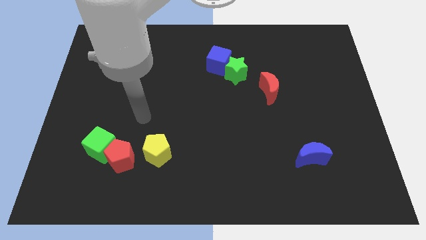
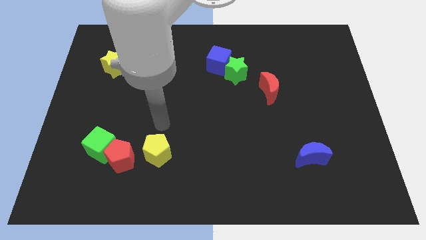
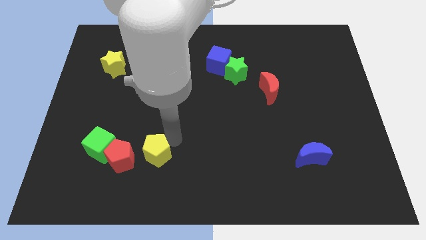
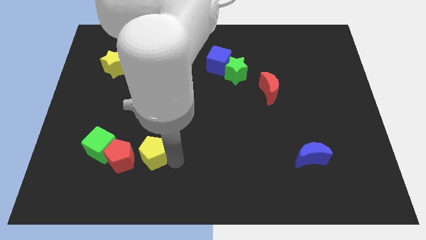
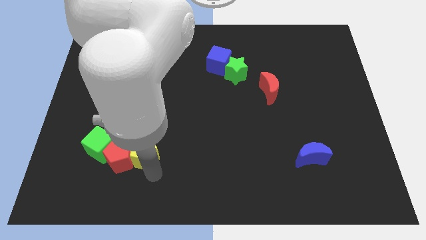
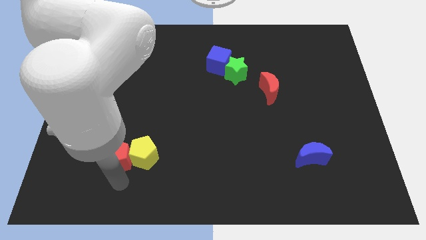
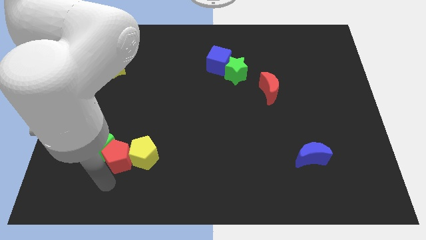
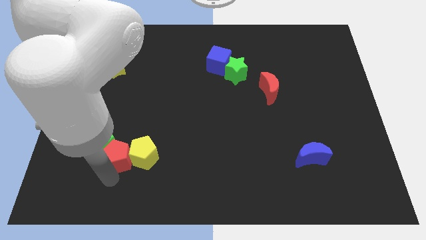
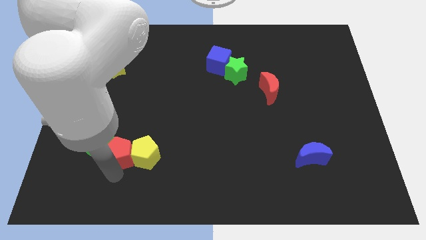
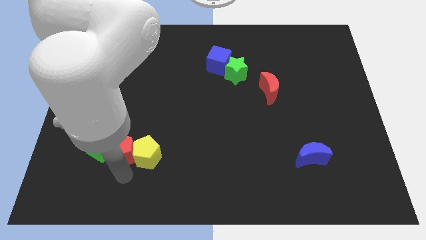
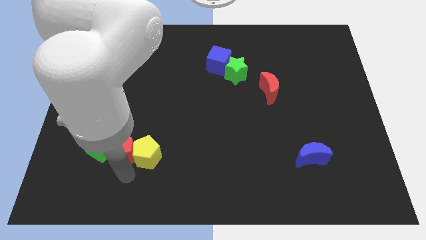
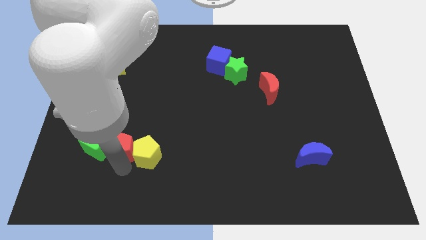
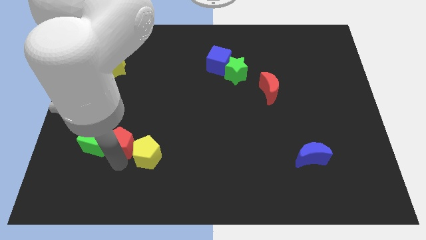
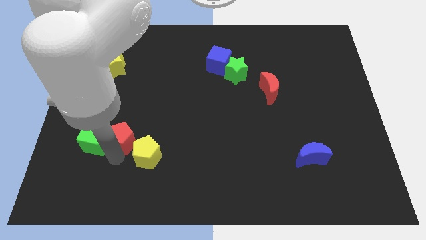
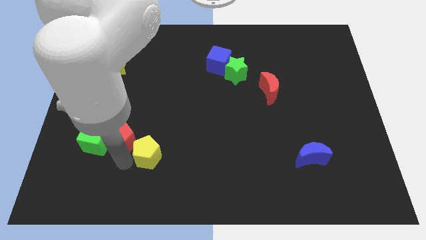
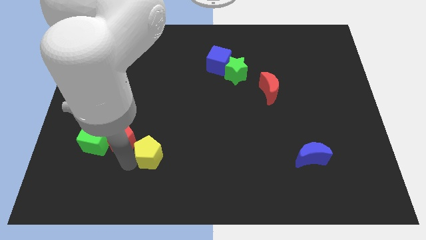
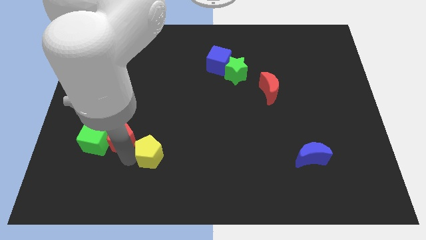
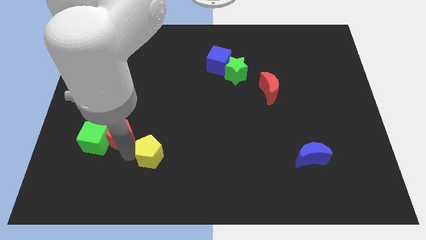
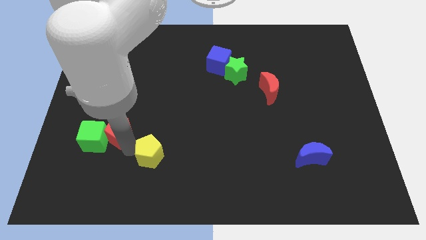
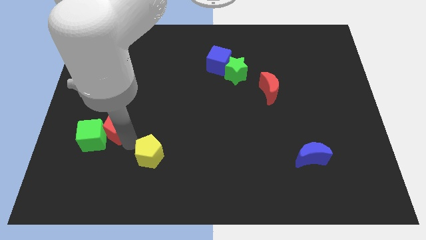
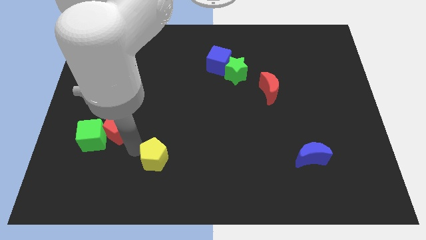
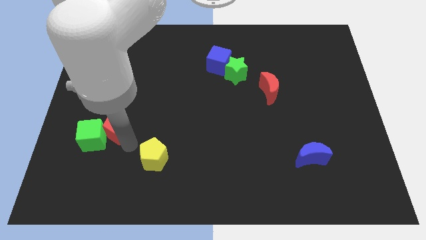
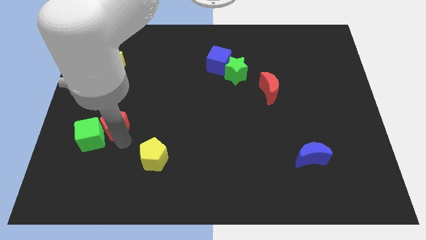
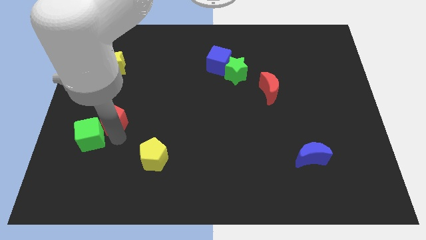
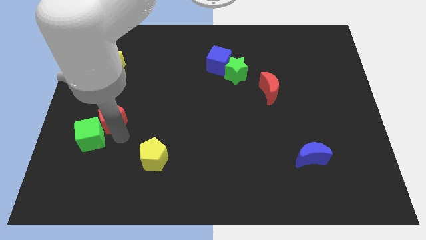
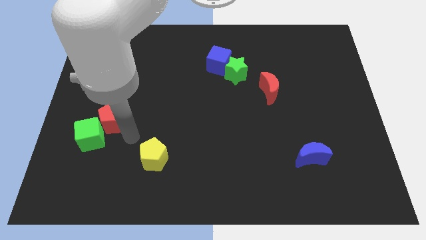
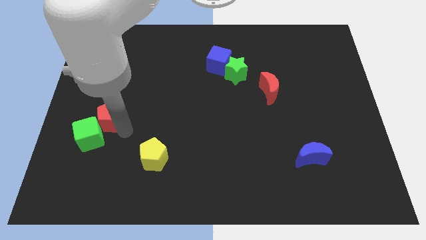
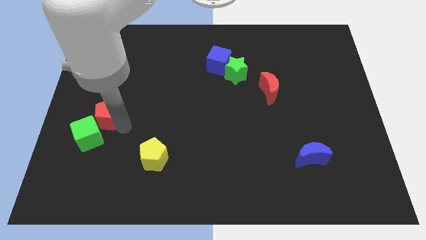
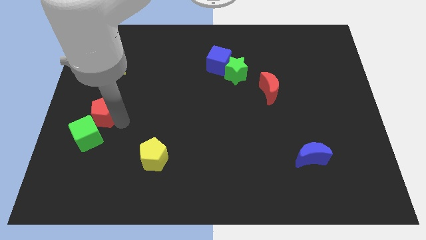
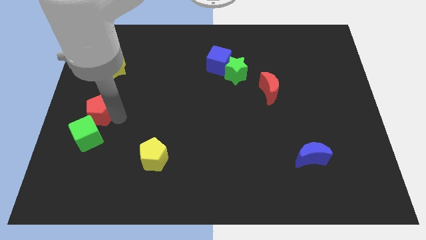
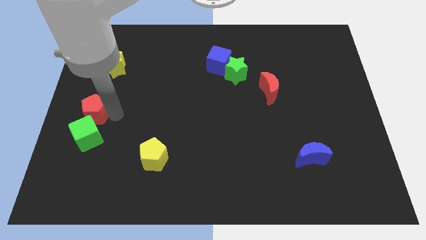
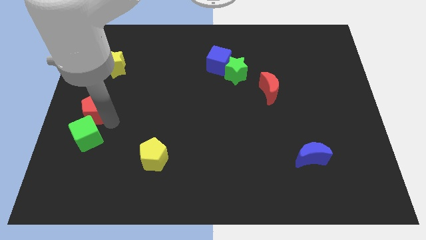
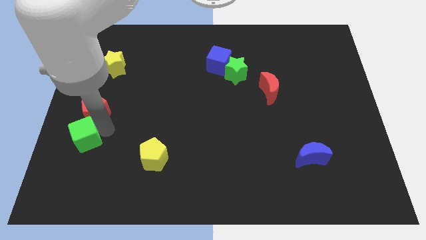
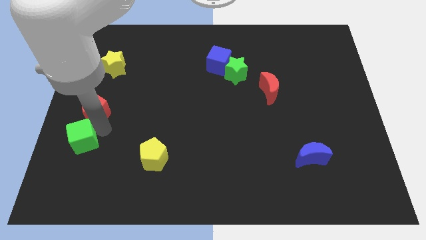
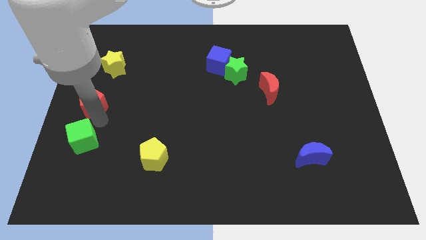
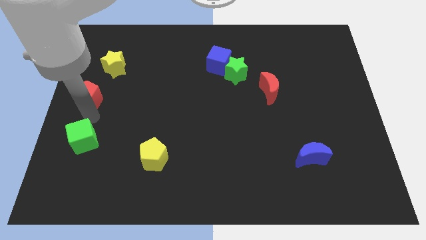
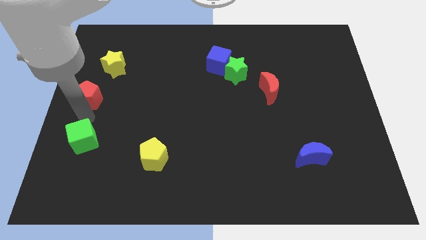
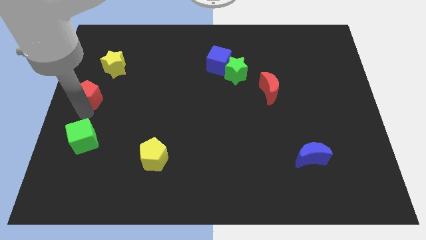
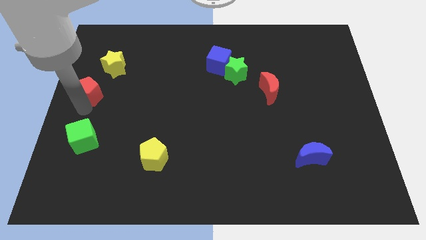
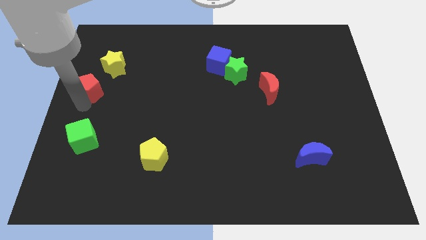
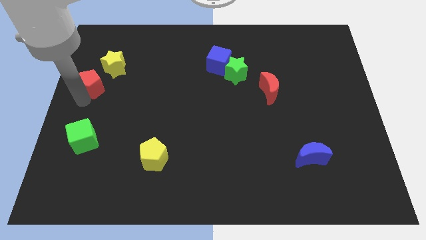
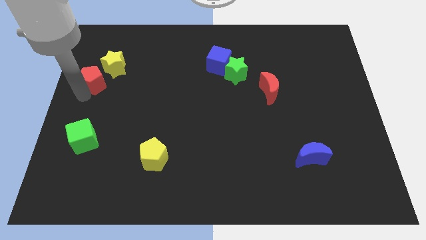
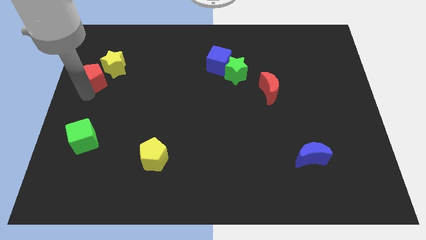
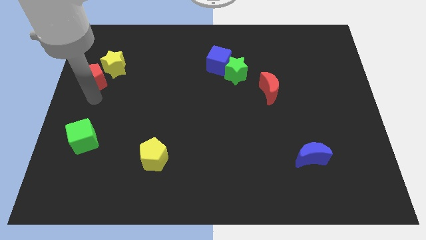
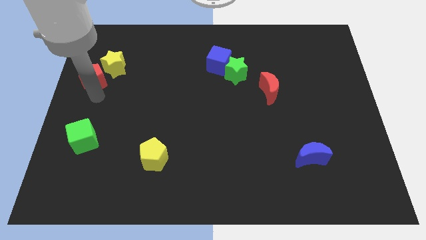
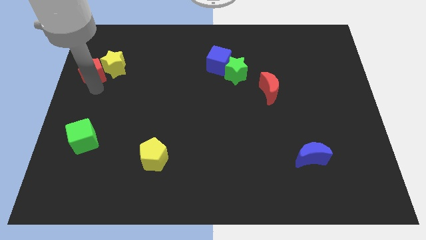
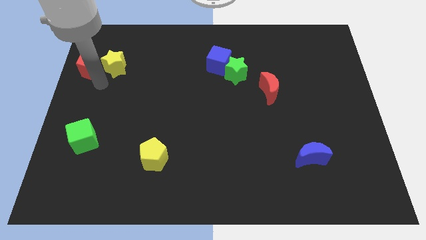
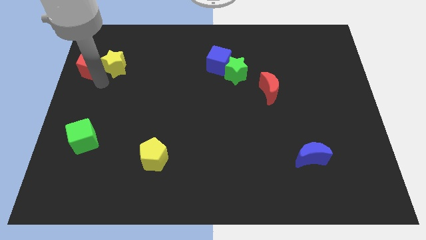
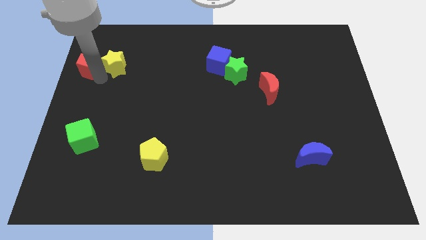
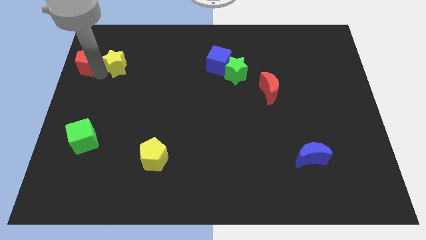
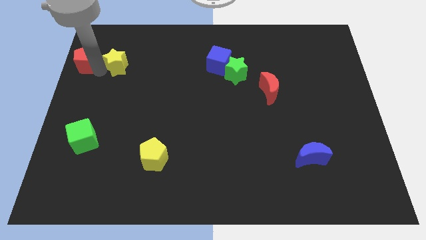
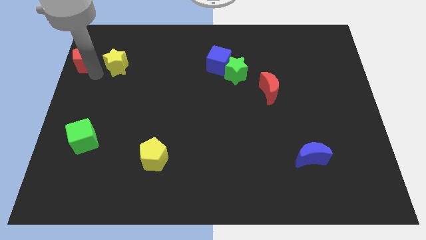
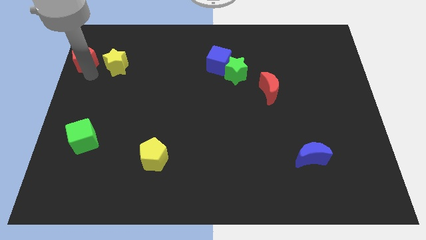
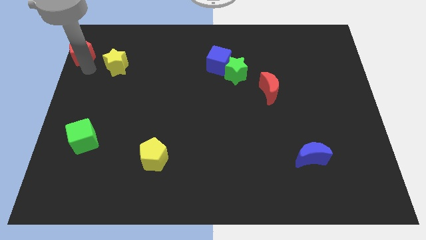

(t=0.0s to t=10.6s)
put the red pentagon to the top left of the board
